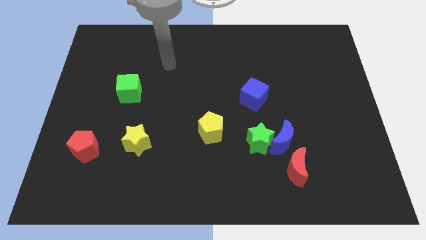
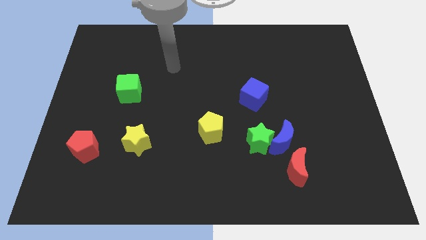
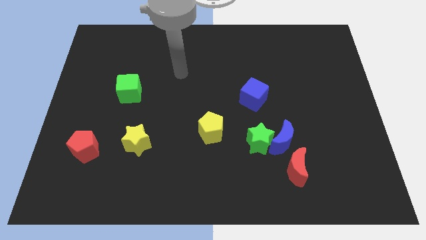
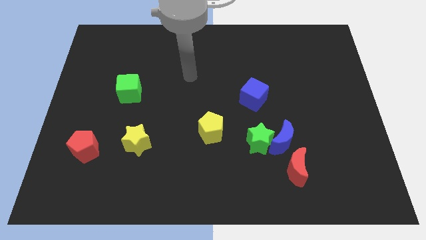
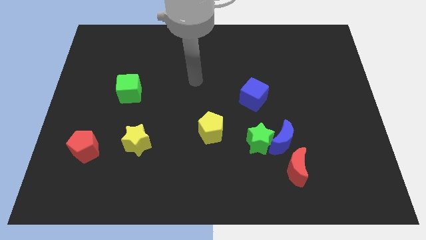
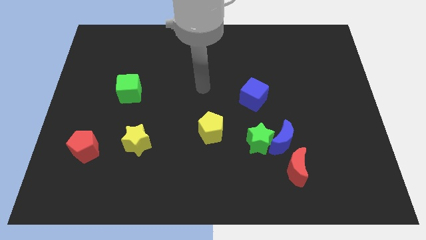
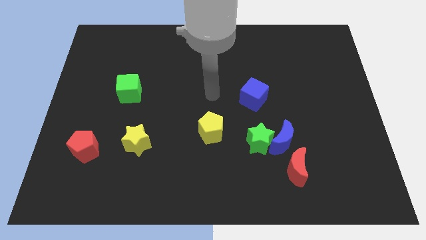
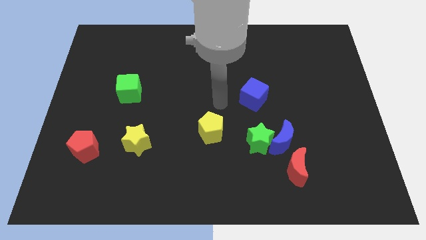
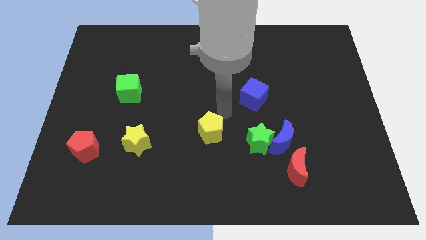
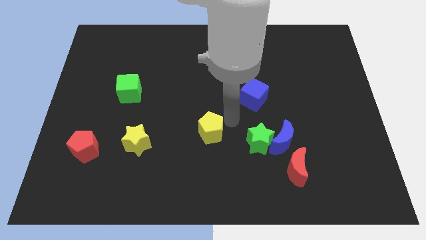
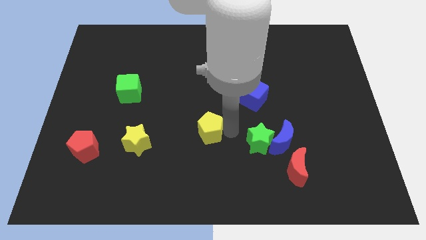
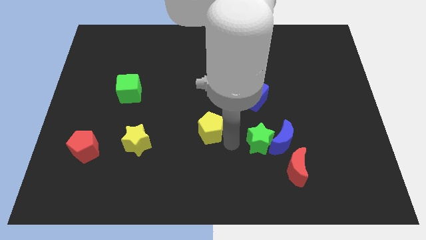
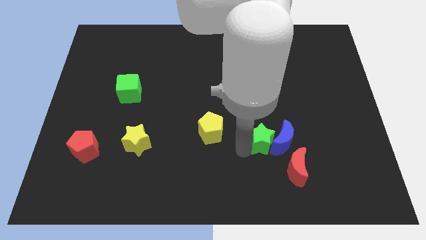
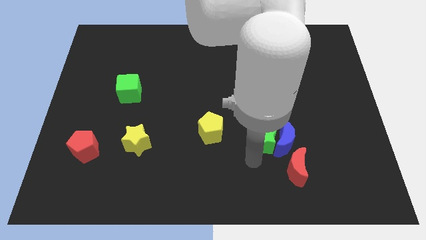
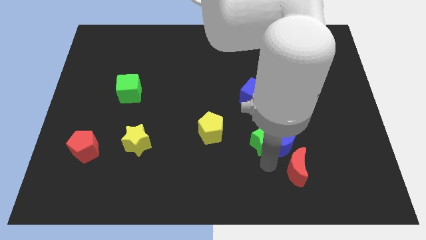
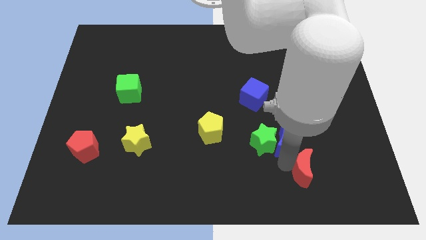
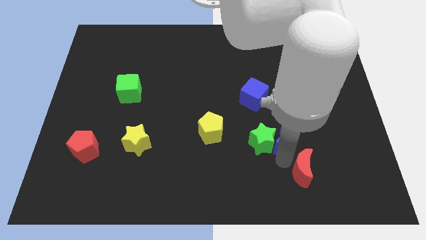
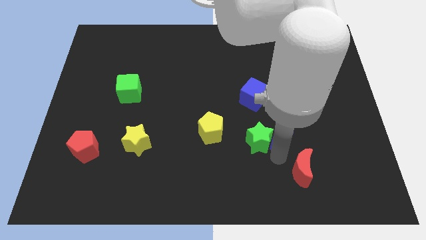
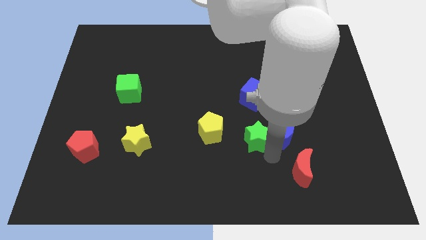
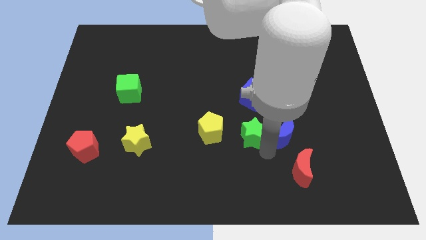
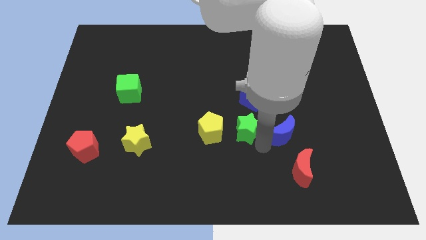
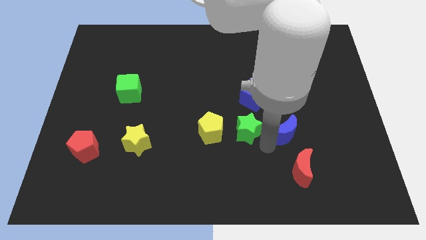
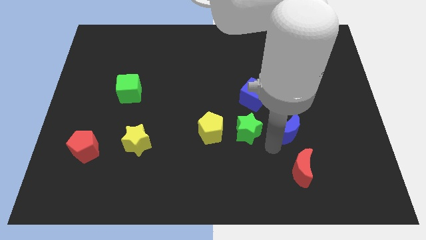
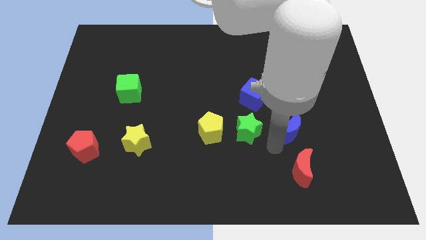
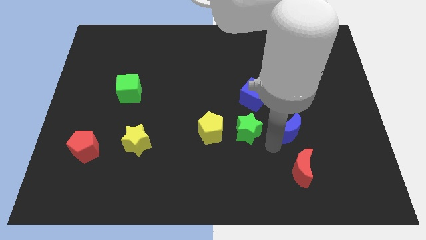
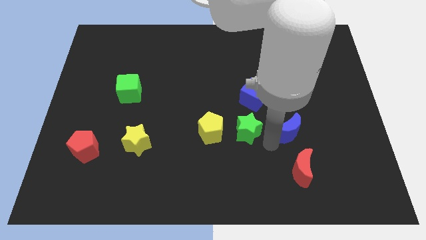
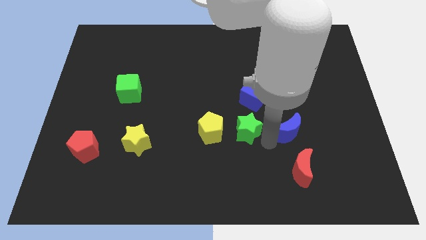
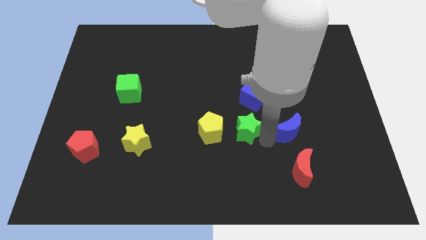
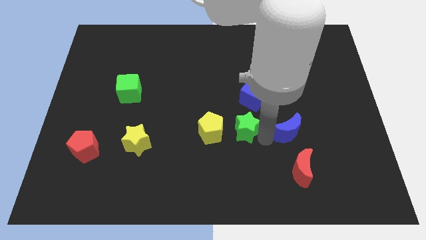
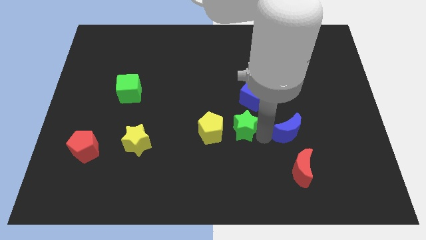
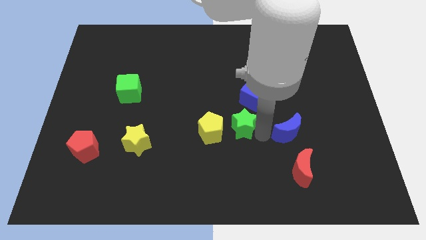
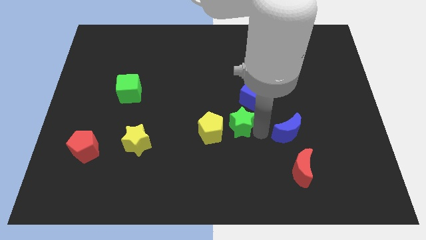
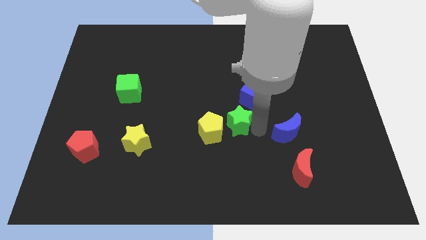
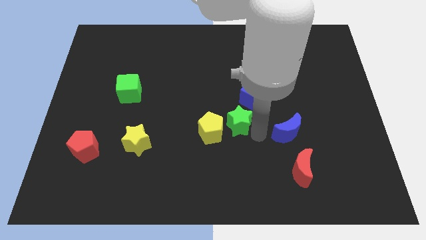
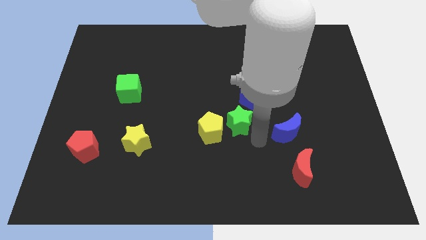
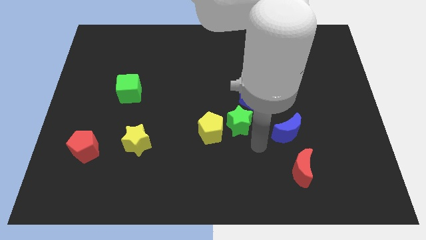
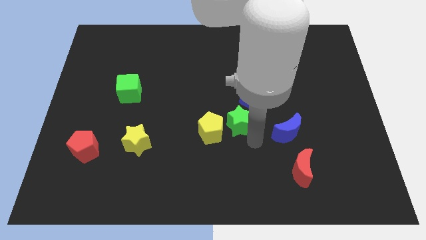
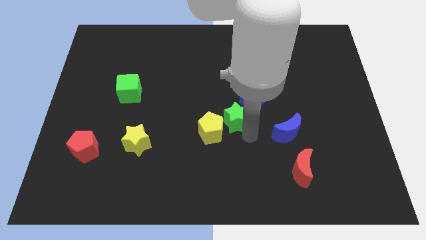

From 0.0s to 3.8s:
slightly move the green star up and then left

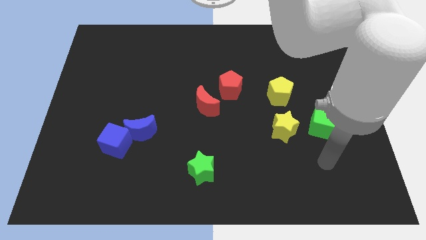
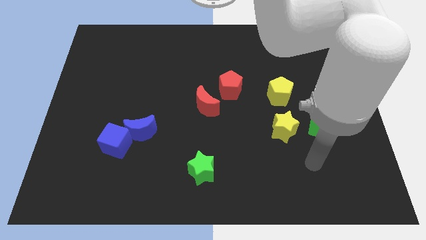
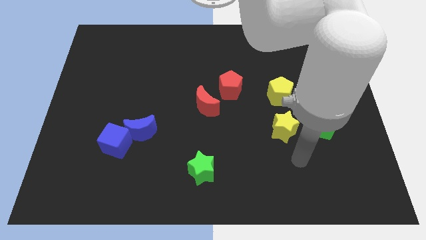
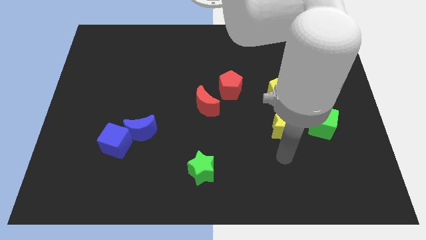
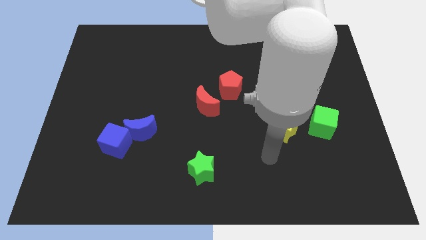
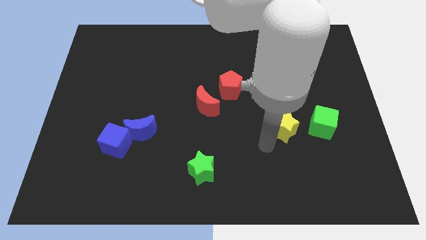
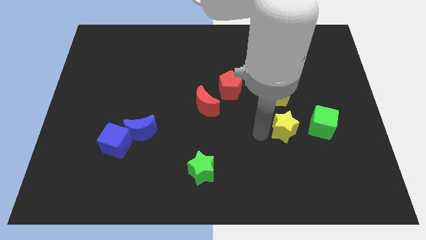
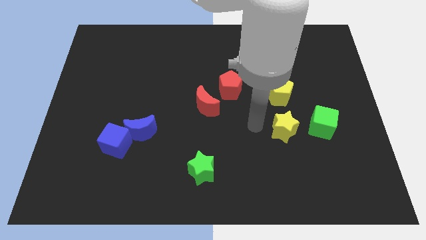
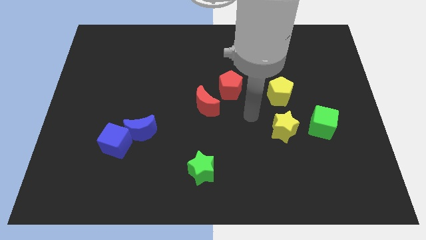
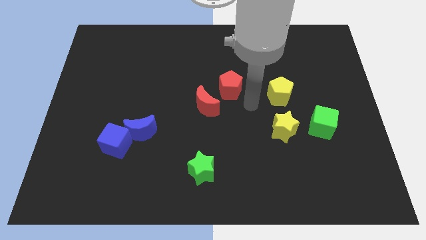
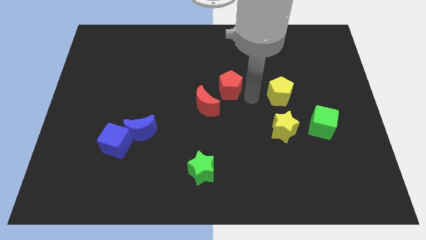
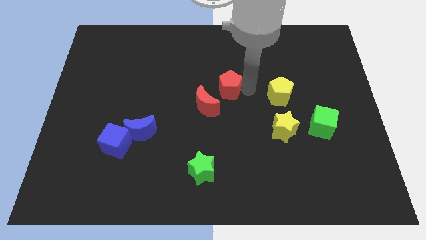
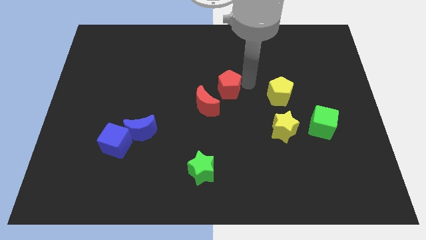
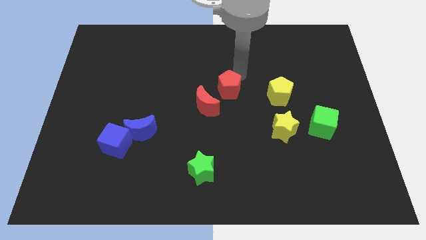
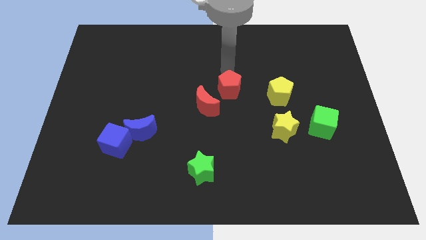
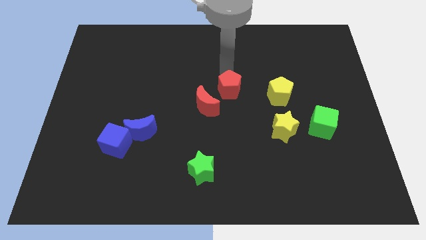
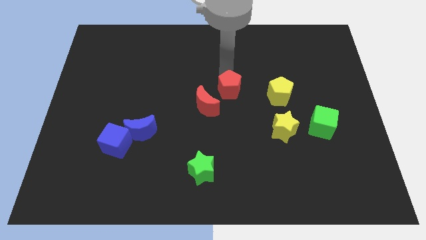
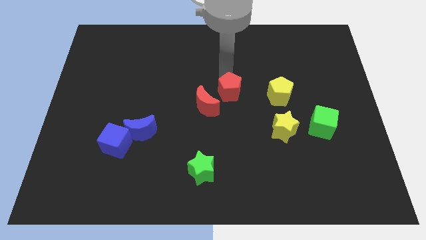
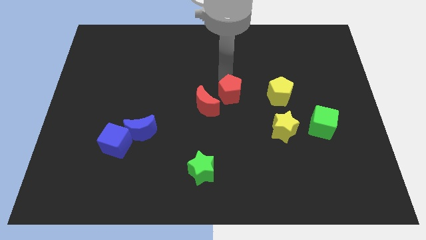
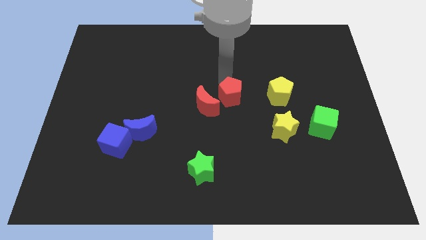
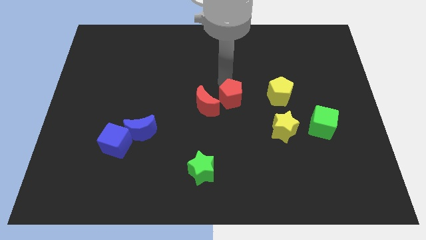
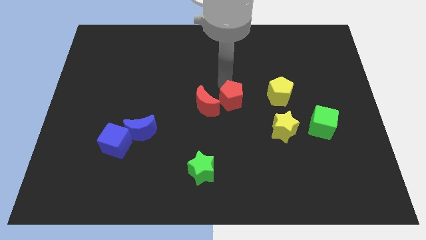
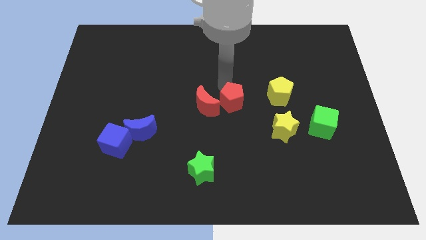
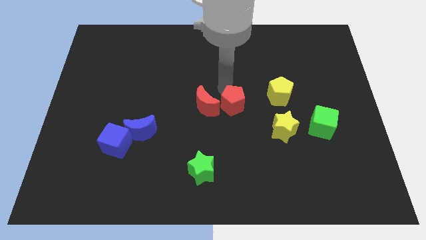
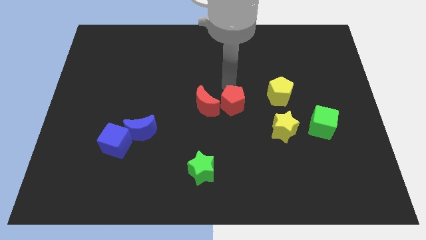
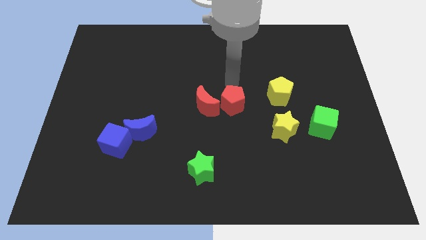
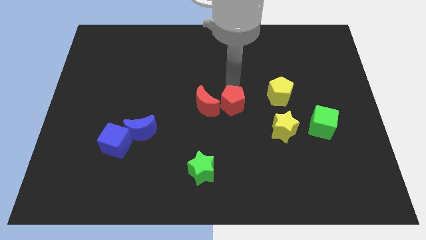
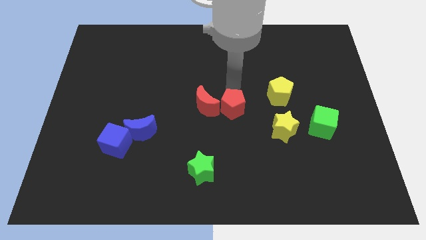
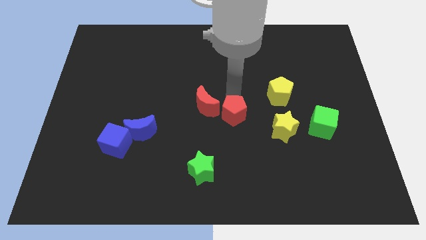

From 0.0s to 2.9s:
push the red pentagon downwards a little bit

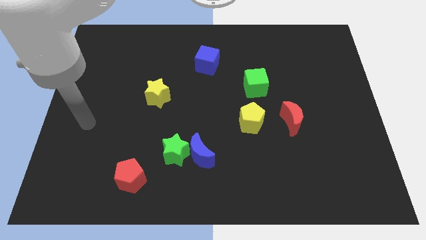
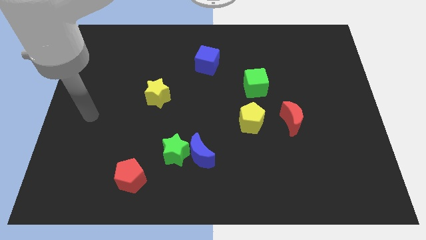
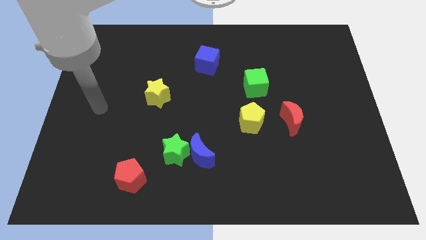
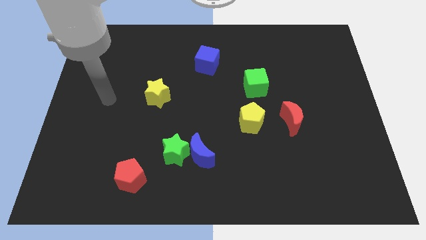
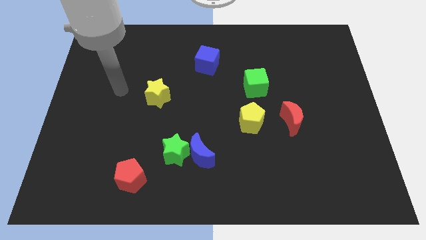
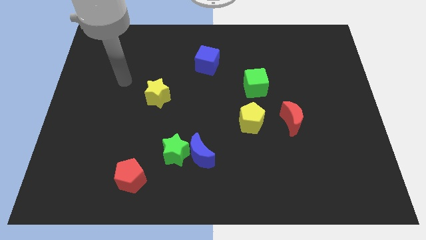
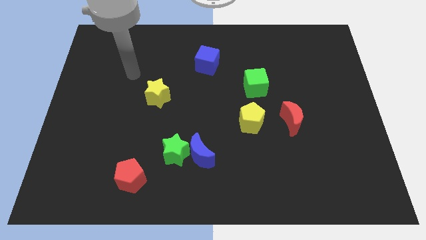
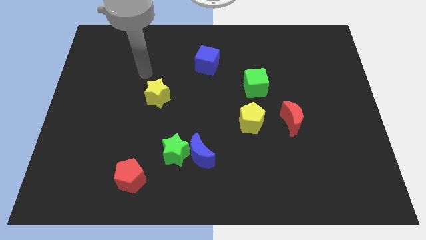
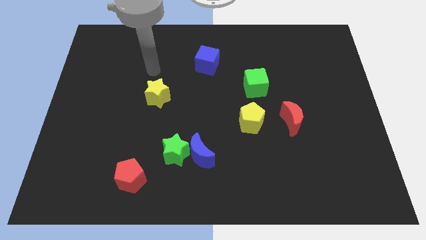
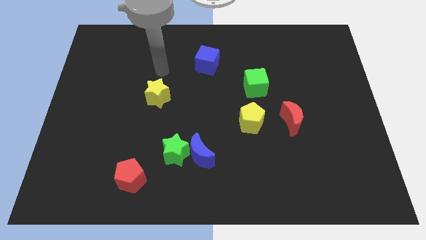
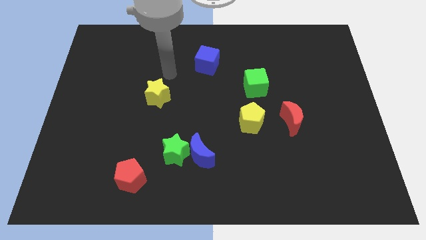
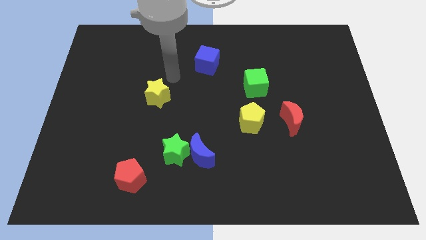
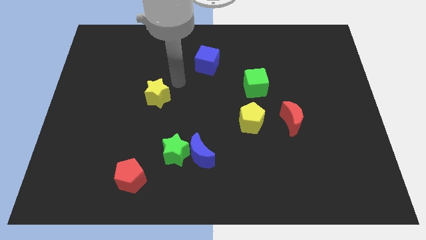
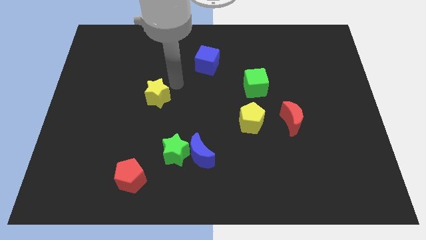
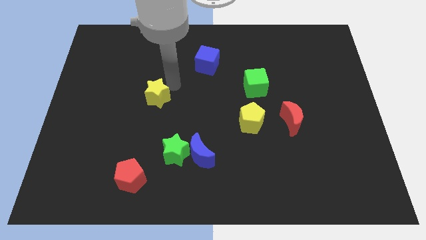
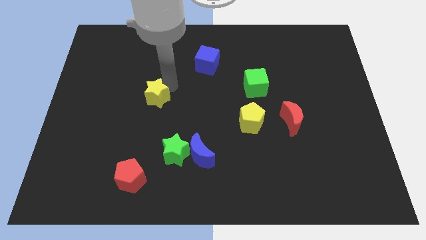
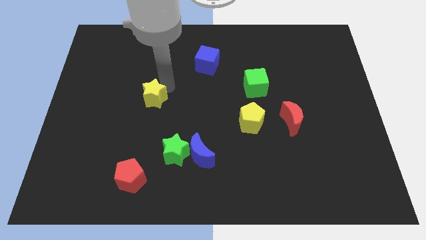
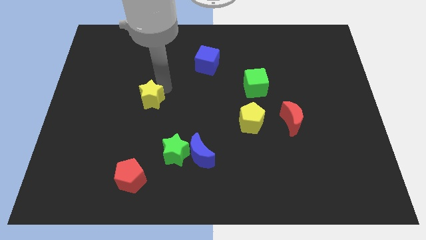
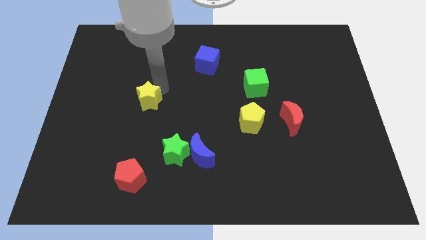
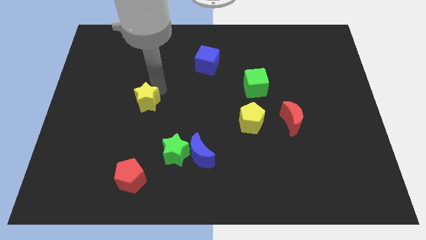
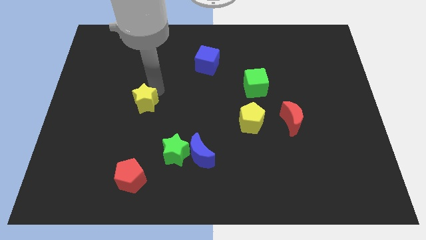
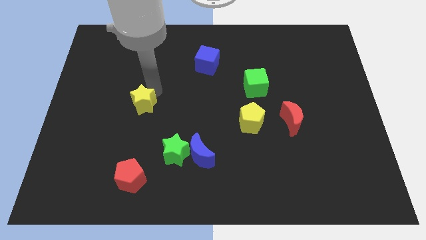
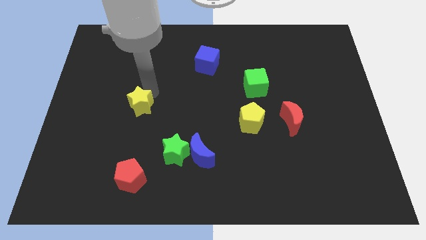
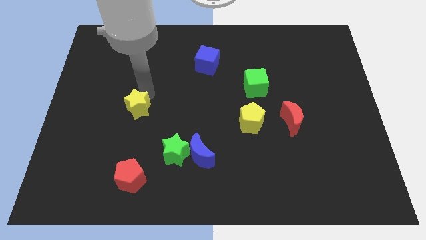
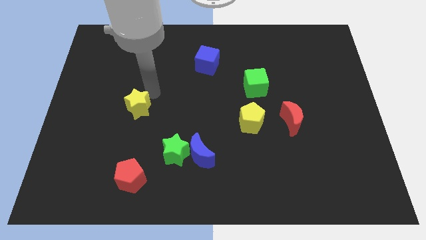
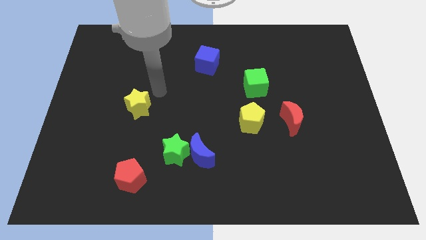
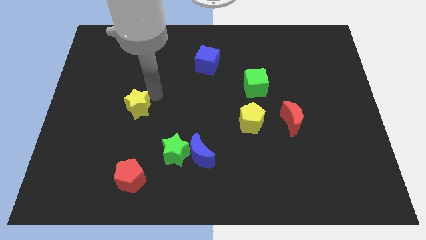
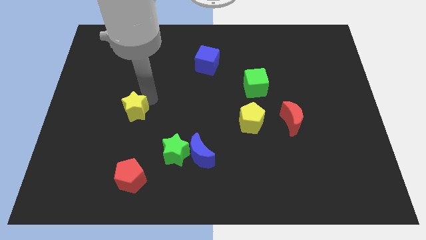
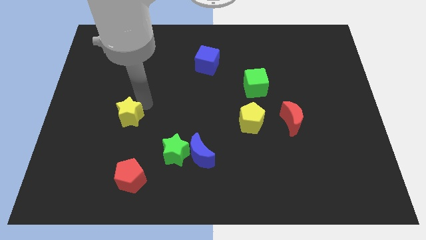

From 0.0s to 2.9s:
push the yellow star somewhat diagonally down and left
